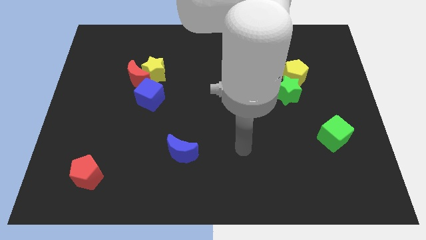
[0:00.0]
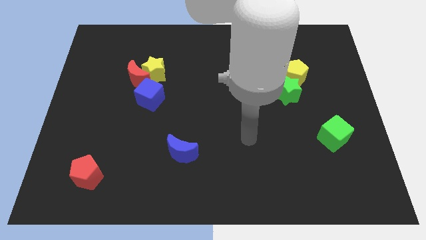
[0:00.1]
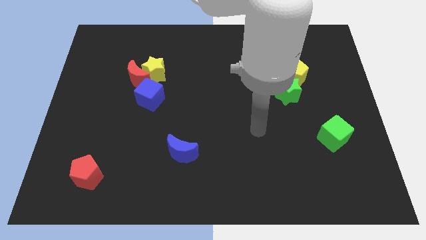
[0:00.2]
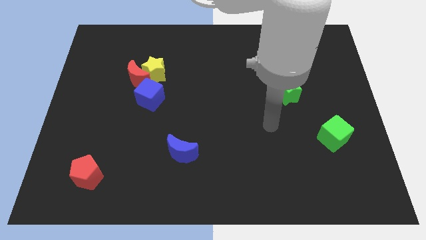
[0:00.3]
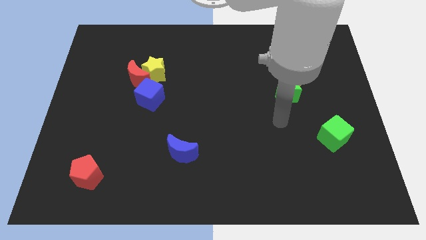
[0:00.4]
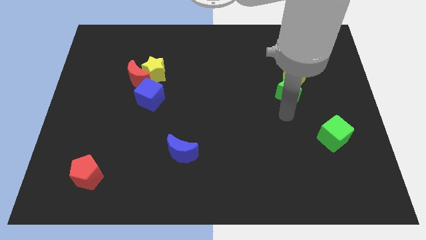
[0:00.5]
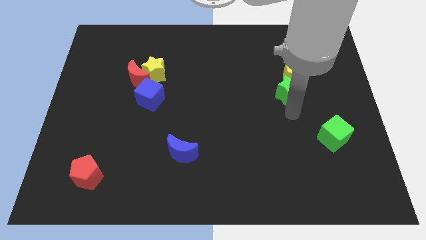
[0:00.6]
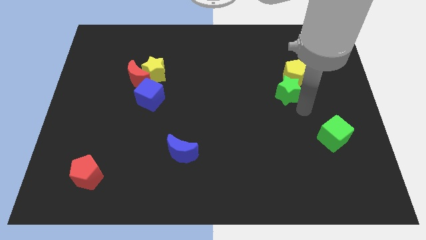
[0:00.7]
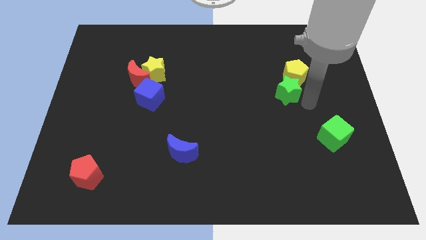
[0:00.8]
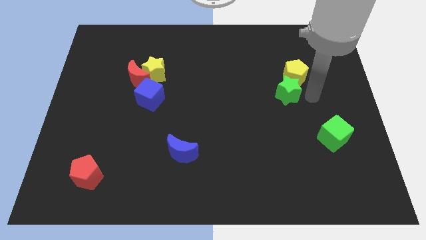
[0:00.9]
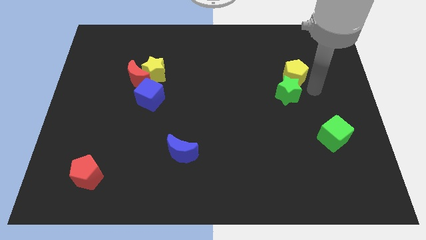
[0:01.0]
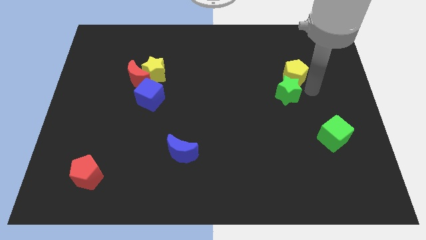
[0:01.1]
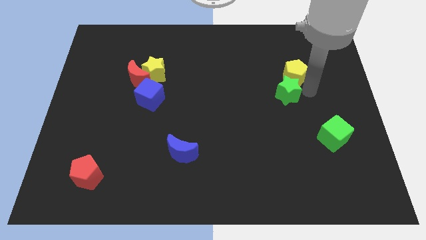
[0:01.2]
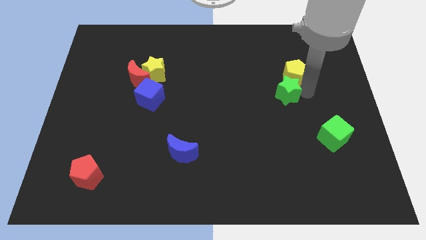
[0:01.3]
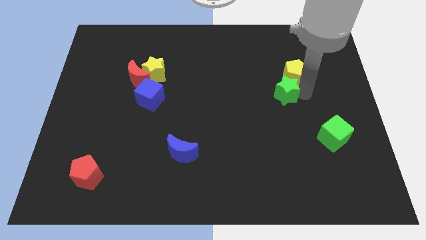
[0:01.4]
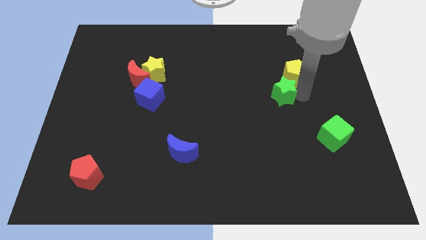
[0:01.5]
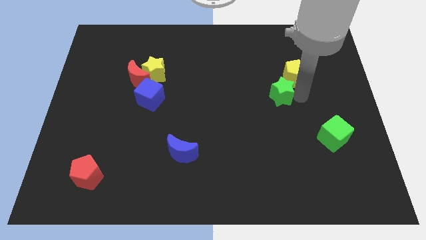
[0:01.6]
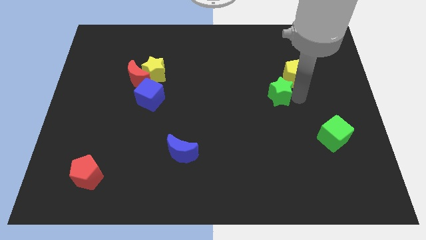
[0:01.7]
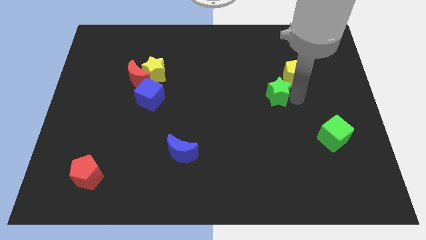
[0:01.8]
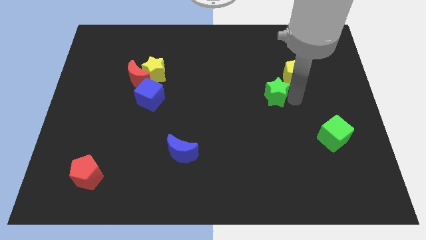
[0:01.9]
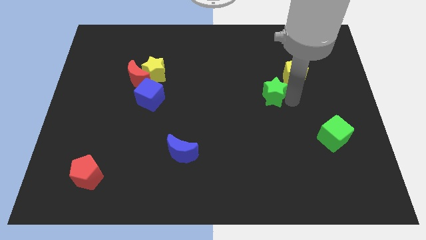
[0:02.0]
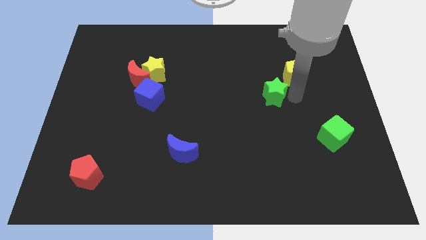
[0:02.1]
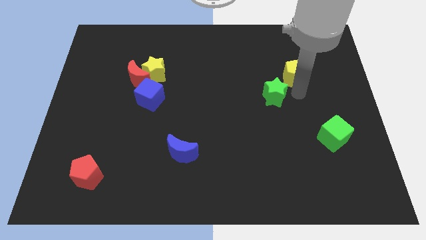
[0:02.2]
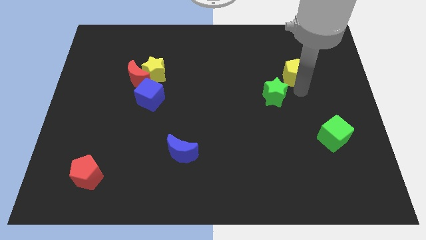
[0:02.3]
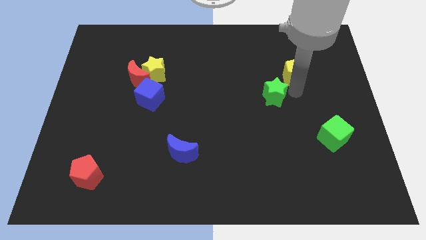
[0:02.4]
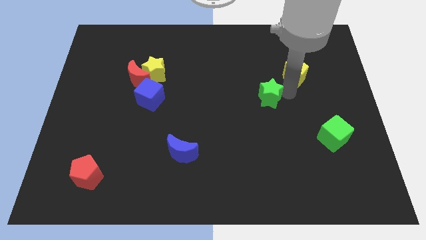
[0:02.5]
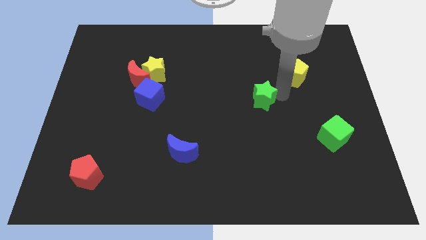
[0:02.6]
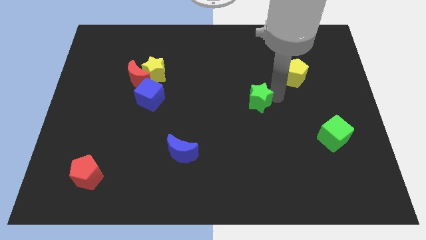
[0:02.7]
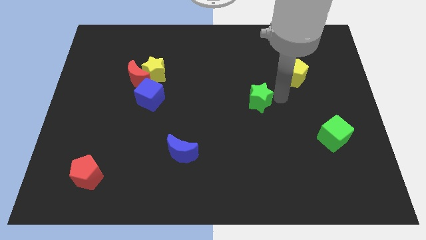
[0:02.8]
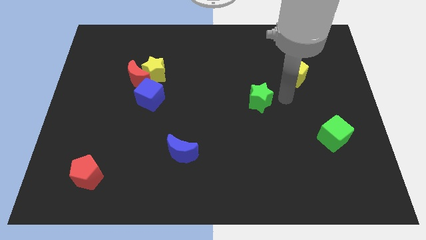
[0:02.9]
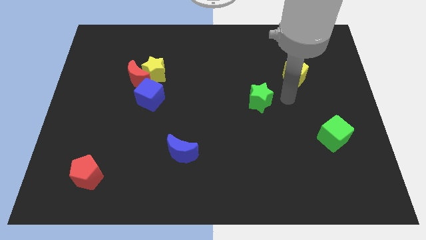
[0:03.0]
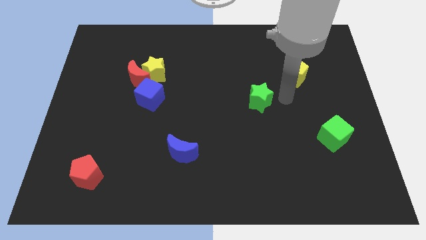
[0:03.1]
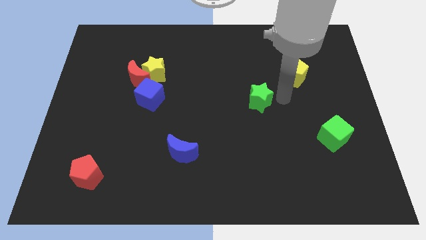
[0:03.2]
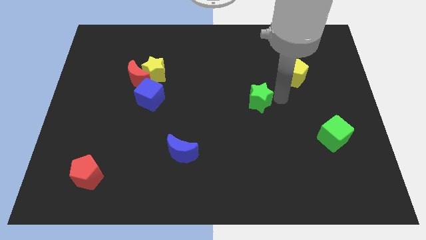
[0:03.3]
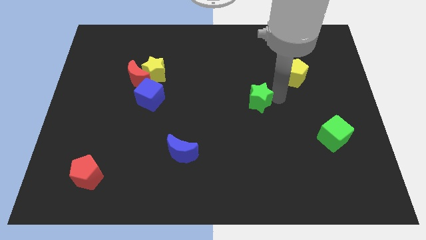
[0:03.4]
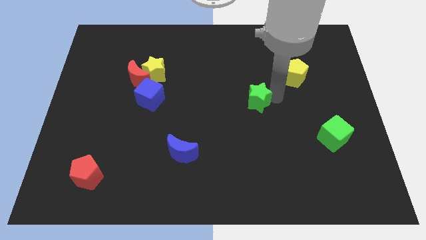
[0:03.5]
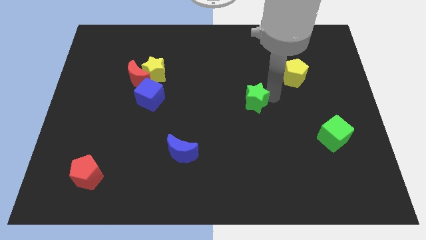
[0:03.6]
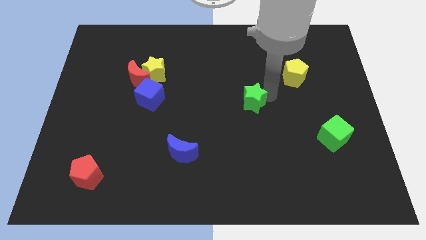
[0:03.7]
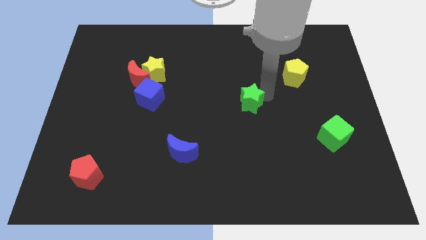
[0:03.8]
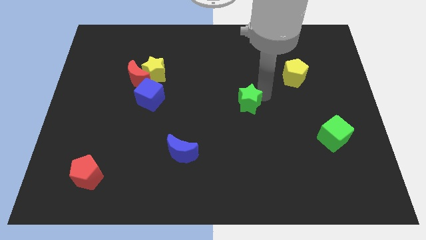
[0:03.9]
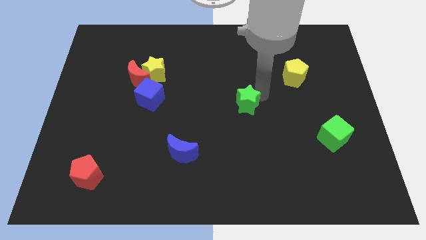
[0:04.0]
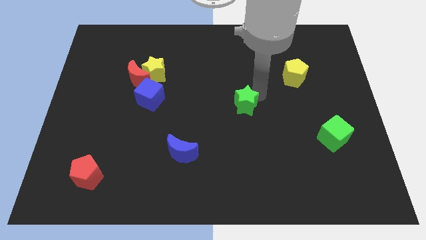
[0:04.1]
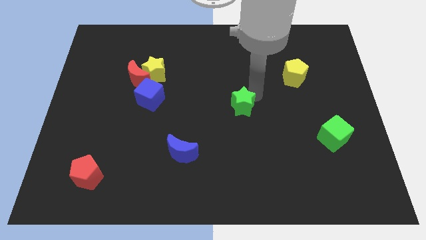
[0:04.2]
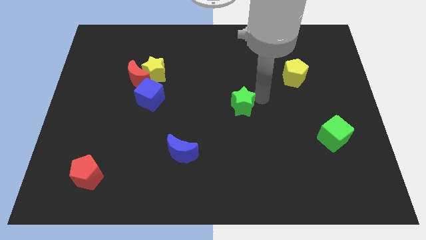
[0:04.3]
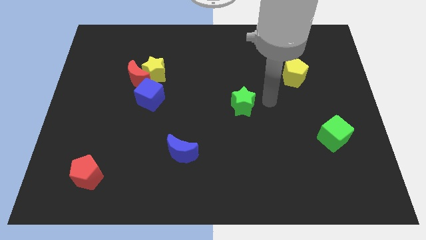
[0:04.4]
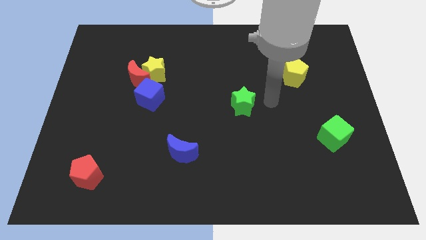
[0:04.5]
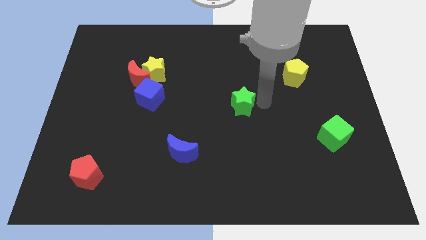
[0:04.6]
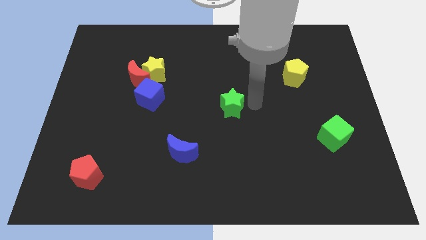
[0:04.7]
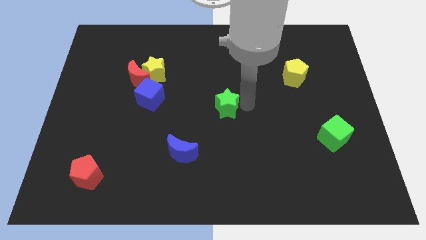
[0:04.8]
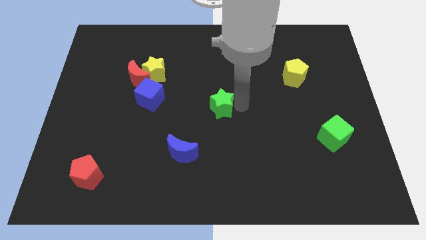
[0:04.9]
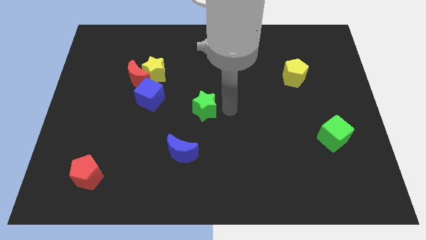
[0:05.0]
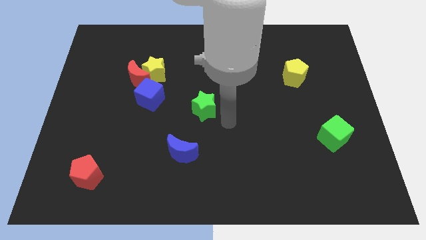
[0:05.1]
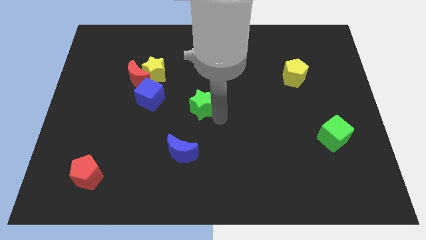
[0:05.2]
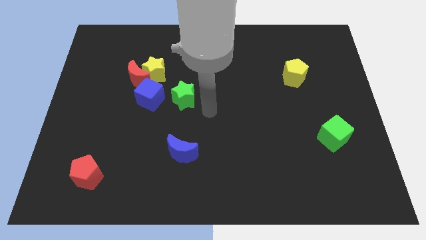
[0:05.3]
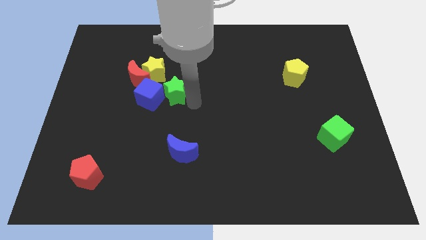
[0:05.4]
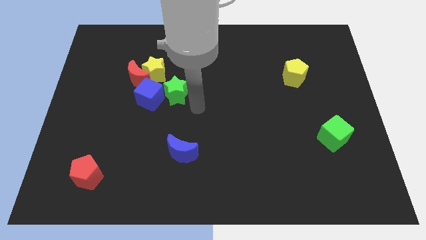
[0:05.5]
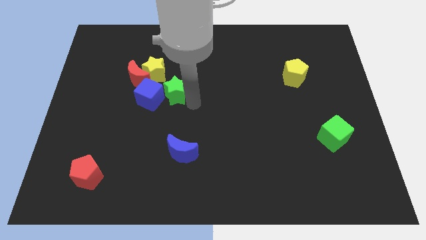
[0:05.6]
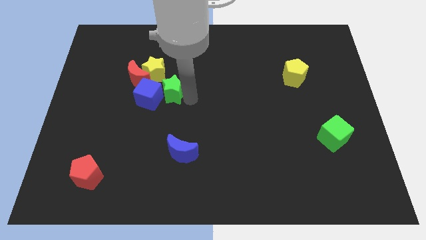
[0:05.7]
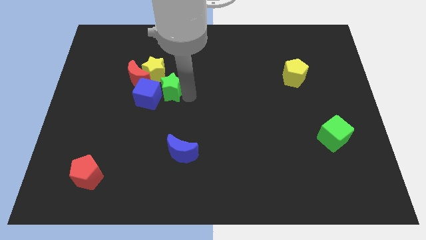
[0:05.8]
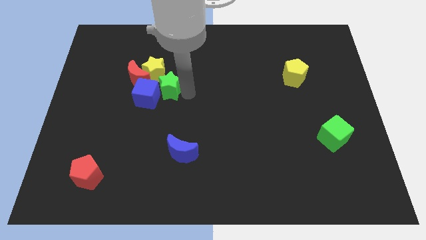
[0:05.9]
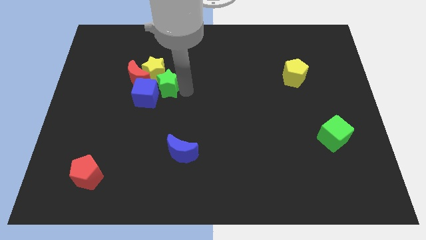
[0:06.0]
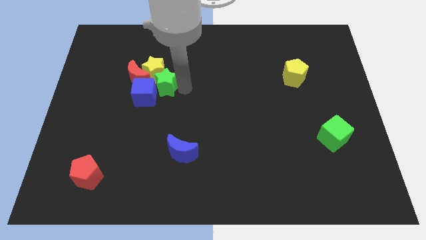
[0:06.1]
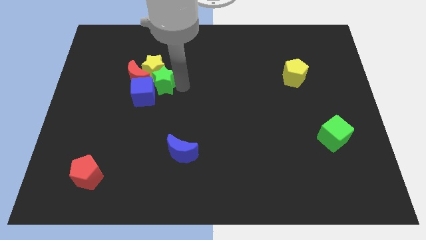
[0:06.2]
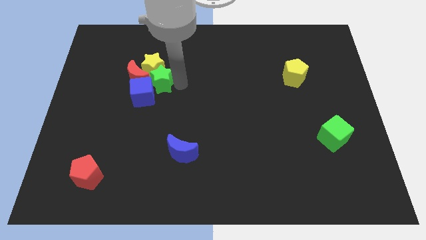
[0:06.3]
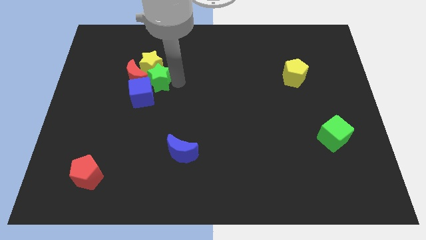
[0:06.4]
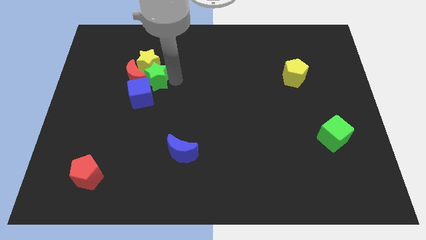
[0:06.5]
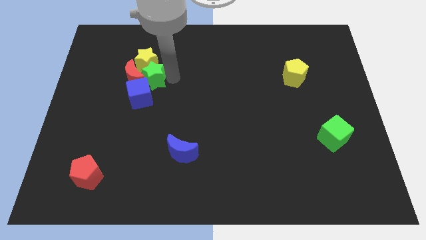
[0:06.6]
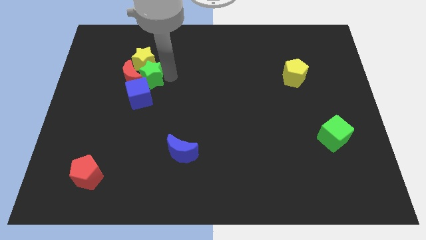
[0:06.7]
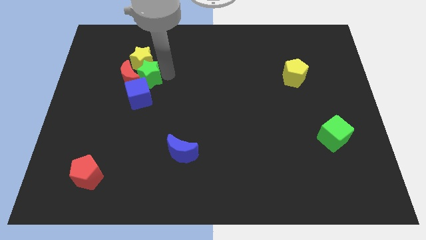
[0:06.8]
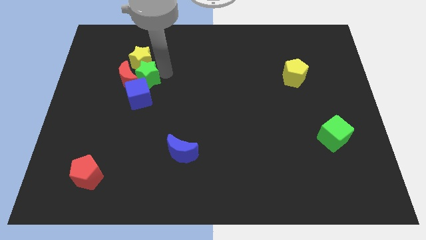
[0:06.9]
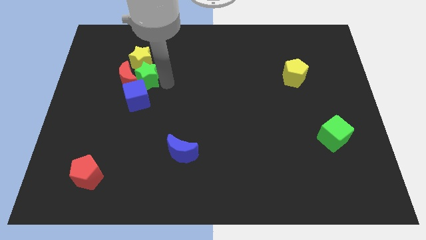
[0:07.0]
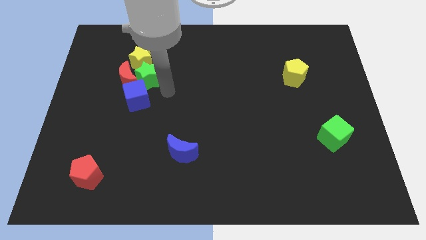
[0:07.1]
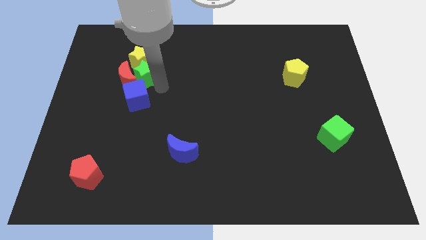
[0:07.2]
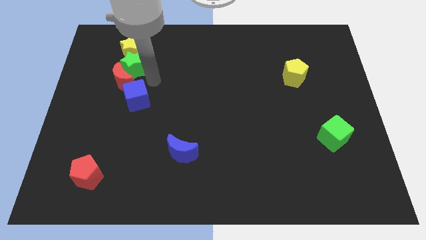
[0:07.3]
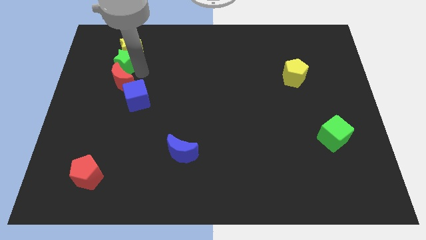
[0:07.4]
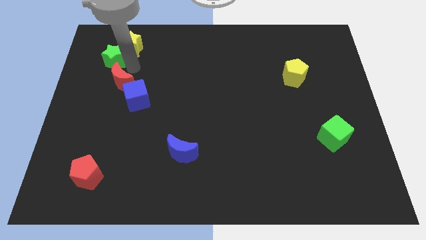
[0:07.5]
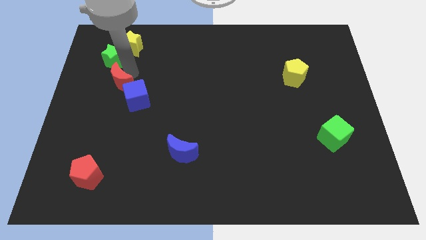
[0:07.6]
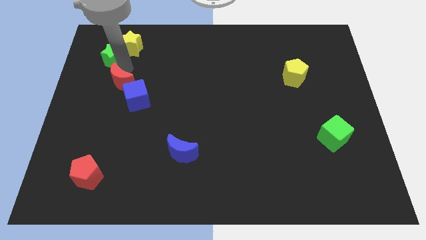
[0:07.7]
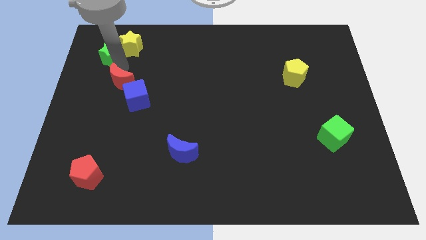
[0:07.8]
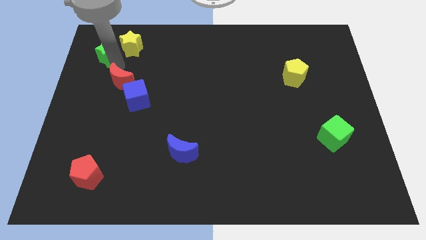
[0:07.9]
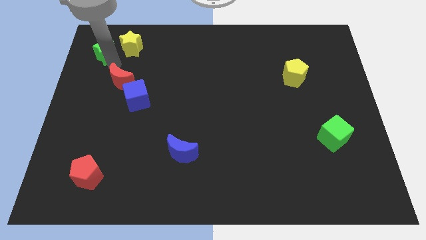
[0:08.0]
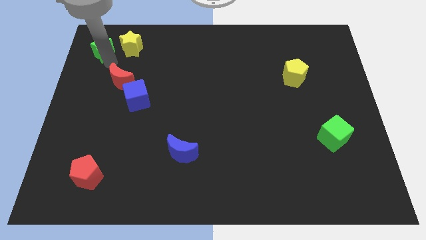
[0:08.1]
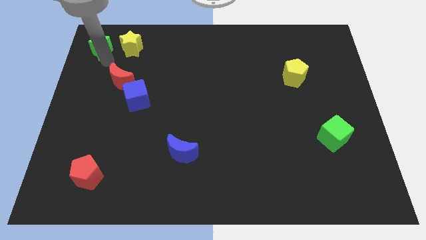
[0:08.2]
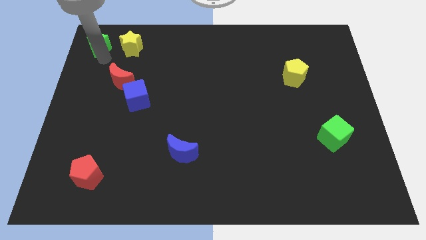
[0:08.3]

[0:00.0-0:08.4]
push the green star to the top left
